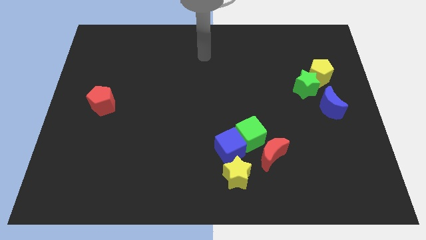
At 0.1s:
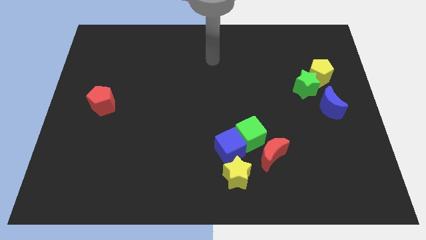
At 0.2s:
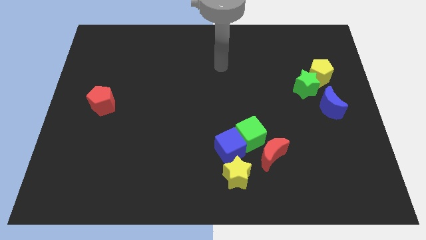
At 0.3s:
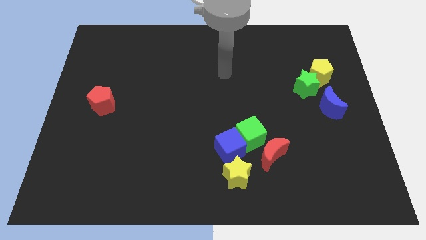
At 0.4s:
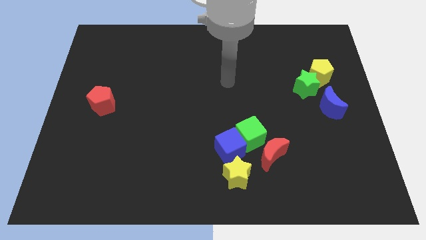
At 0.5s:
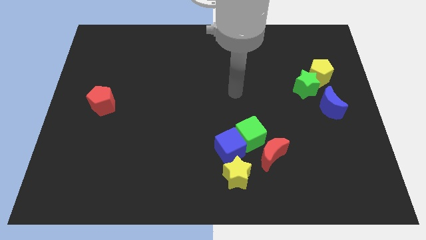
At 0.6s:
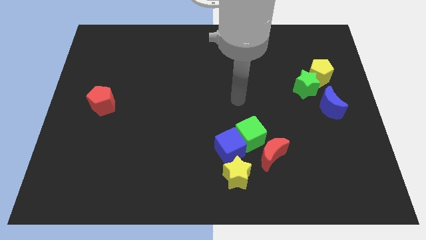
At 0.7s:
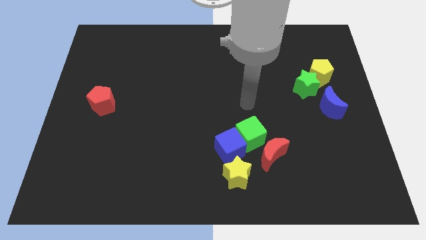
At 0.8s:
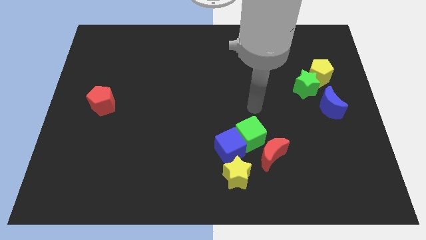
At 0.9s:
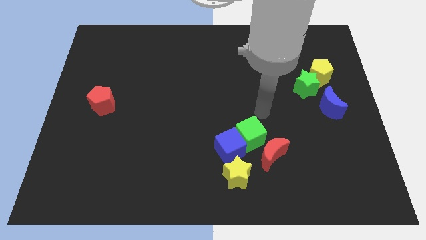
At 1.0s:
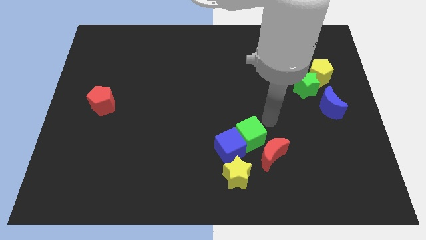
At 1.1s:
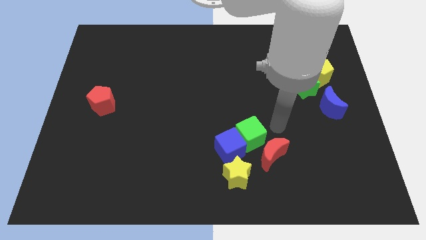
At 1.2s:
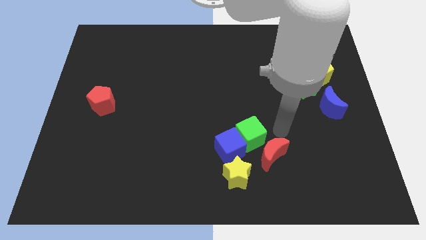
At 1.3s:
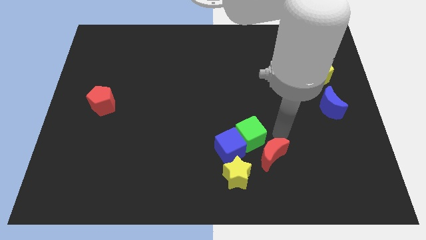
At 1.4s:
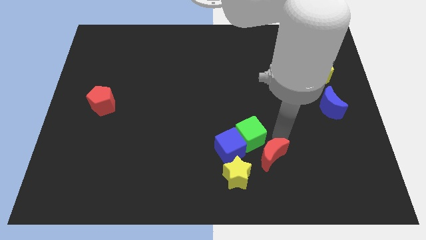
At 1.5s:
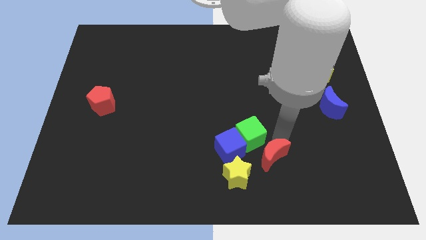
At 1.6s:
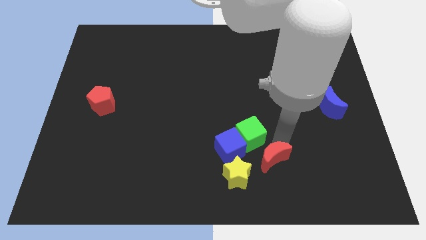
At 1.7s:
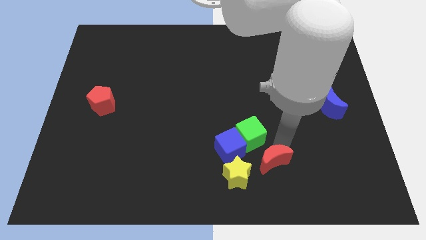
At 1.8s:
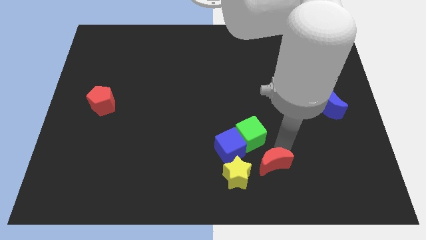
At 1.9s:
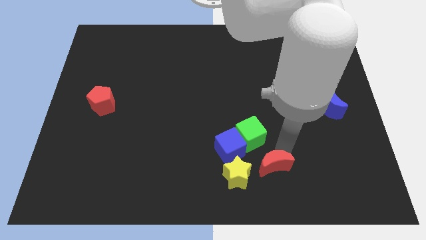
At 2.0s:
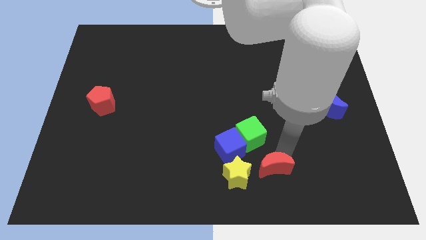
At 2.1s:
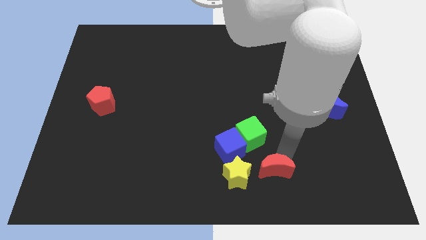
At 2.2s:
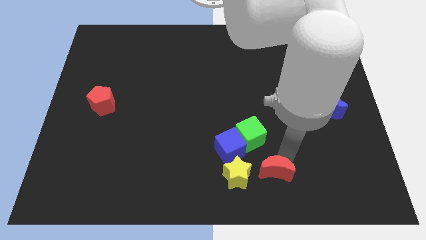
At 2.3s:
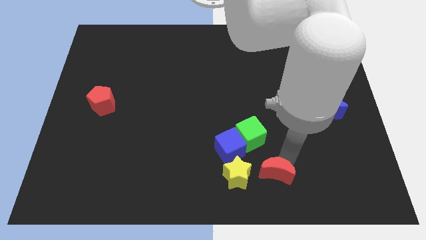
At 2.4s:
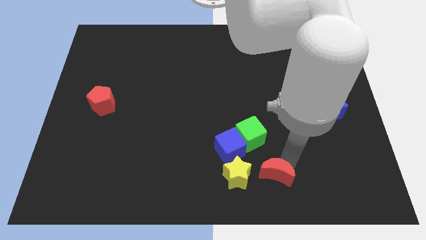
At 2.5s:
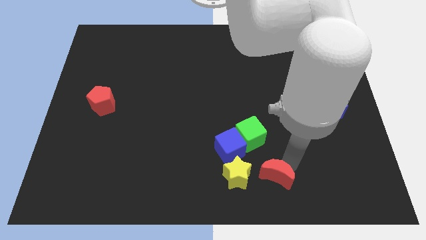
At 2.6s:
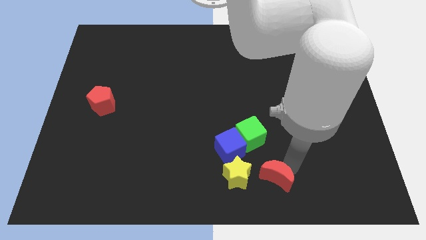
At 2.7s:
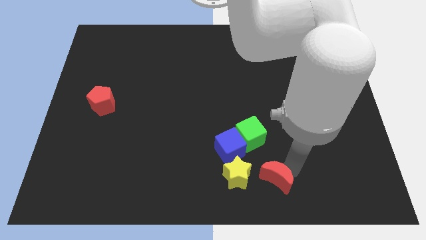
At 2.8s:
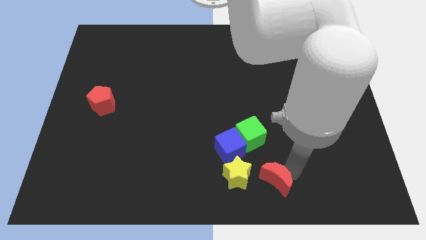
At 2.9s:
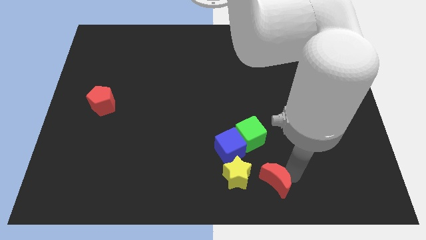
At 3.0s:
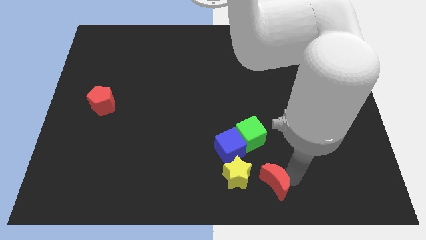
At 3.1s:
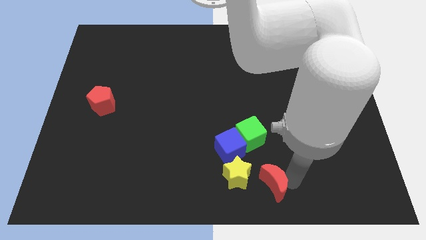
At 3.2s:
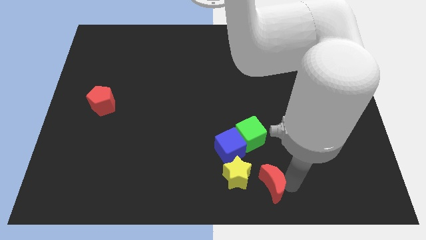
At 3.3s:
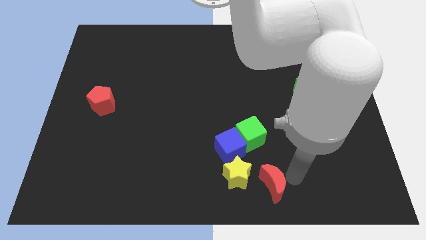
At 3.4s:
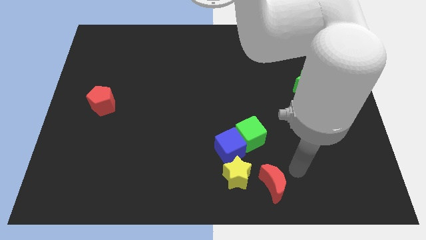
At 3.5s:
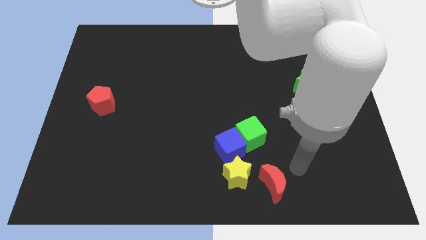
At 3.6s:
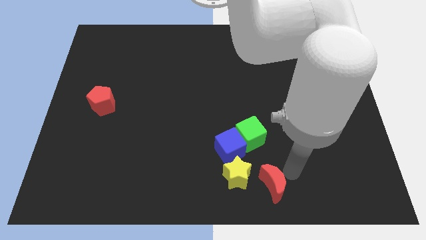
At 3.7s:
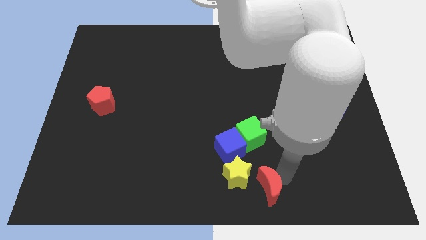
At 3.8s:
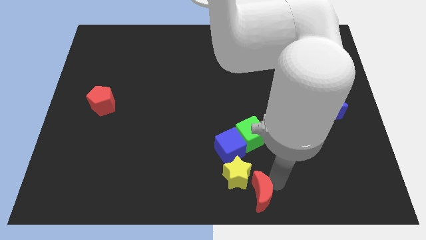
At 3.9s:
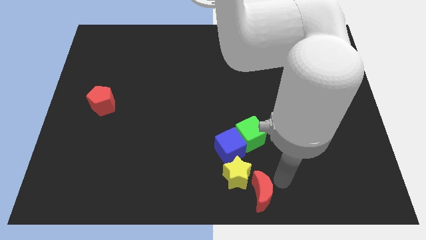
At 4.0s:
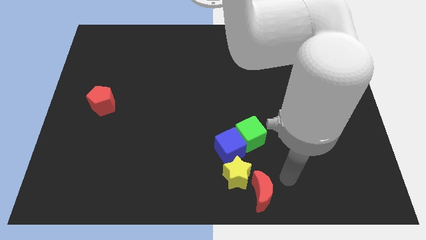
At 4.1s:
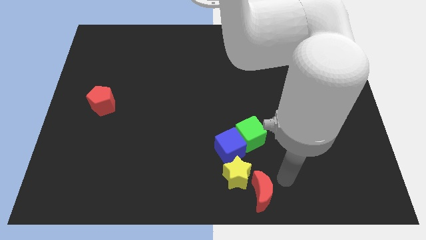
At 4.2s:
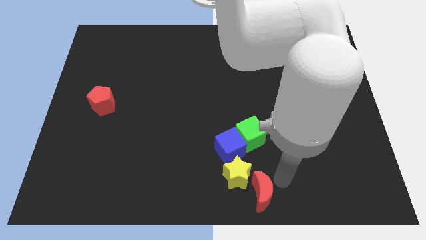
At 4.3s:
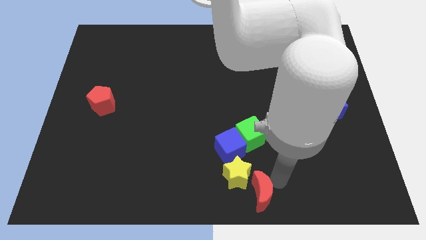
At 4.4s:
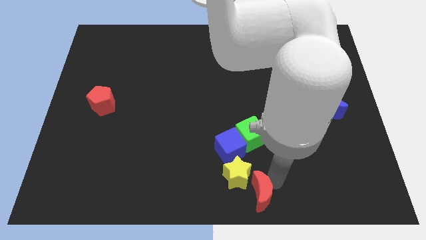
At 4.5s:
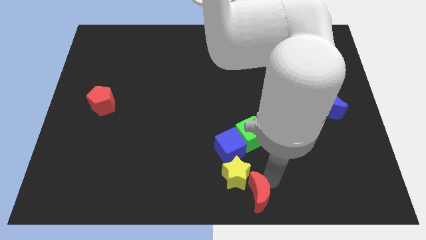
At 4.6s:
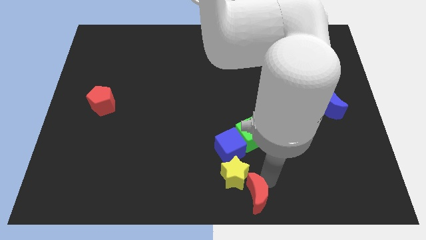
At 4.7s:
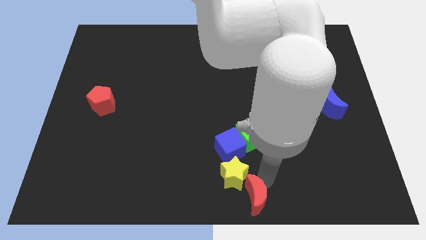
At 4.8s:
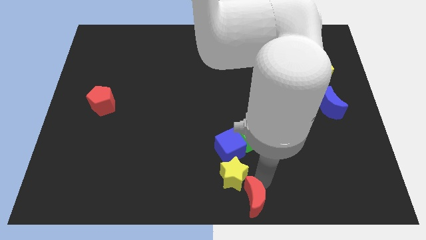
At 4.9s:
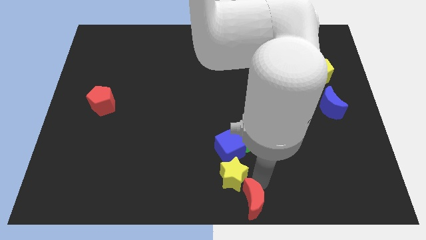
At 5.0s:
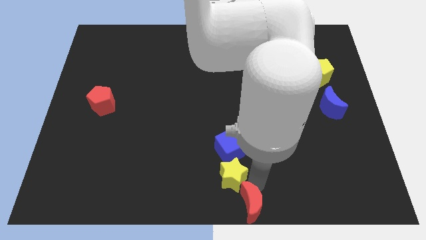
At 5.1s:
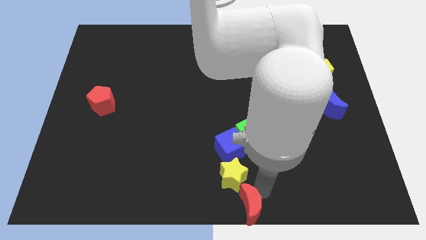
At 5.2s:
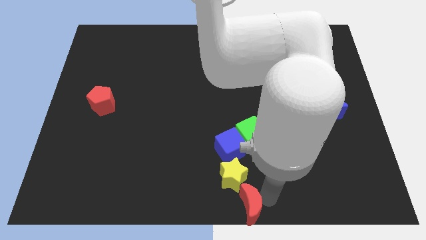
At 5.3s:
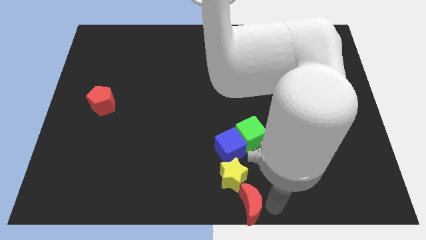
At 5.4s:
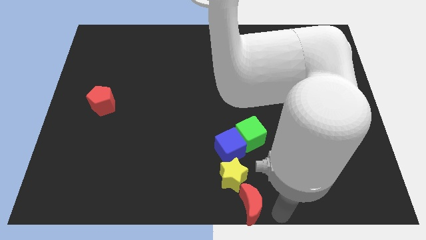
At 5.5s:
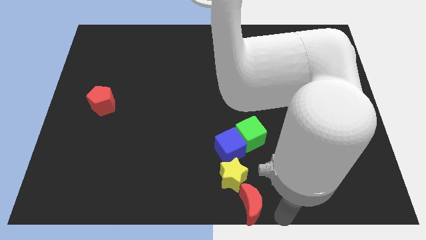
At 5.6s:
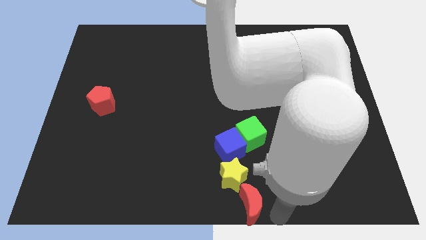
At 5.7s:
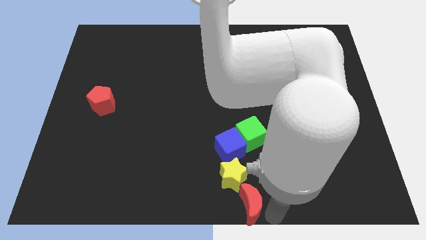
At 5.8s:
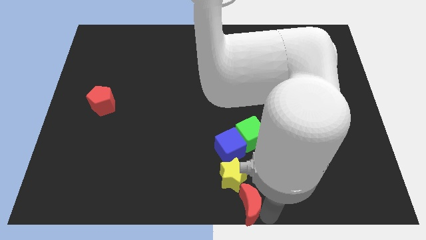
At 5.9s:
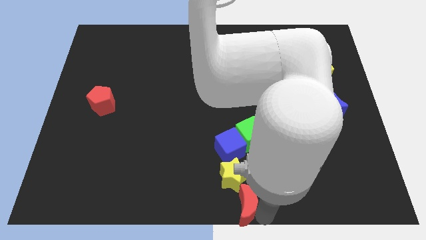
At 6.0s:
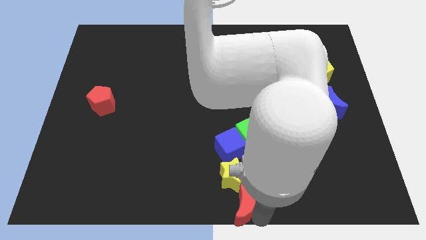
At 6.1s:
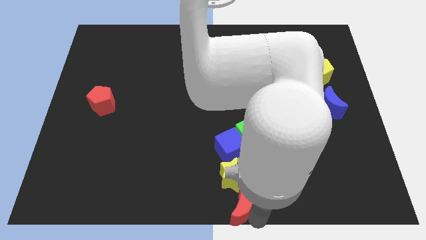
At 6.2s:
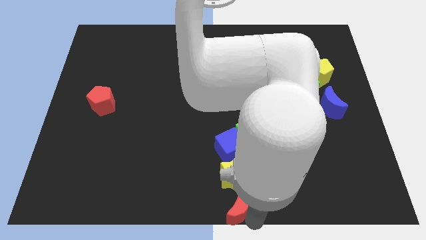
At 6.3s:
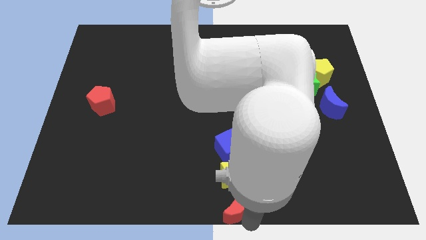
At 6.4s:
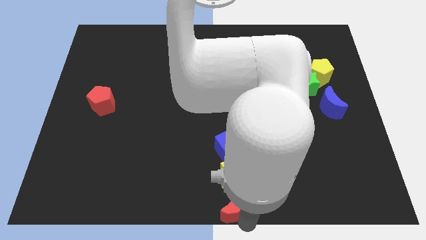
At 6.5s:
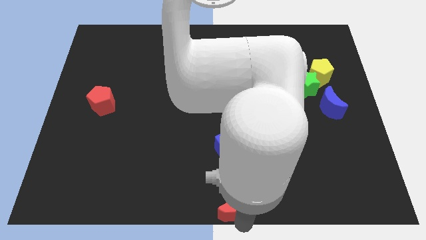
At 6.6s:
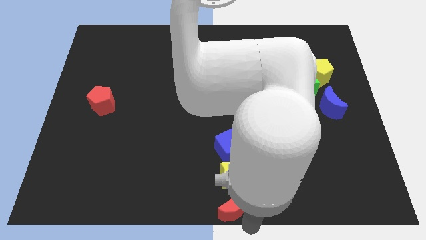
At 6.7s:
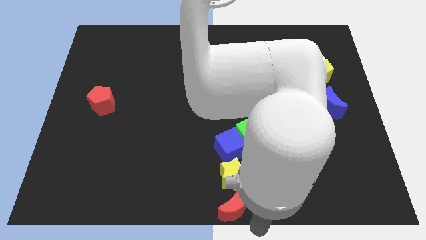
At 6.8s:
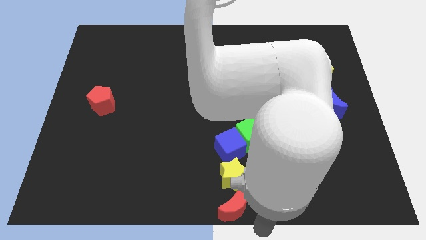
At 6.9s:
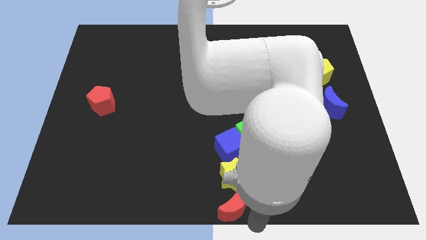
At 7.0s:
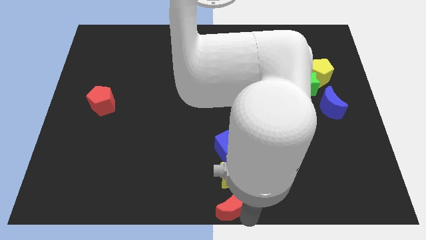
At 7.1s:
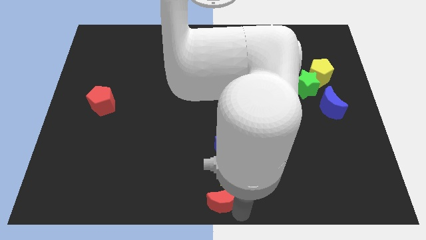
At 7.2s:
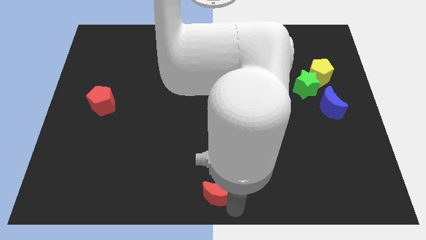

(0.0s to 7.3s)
slide the red moon a little to the left

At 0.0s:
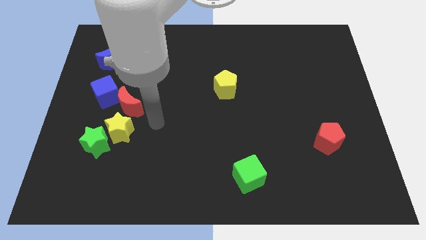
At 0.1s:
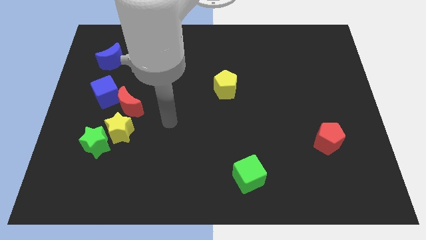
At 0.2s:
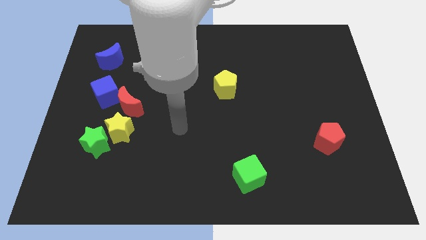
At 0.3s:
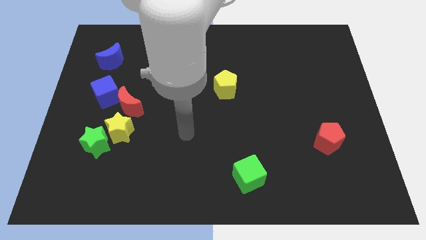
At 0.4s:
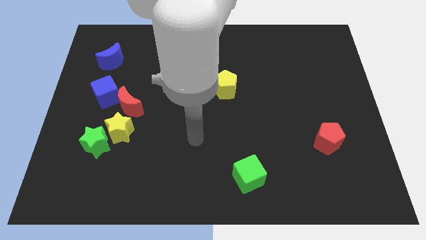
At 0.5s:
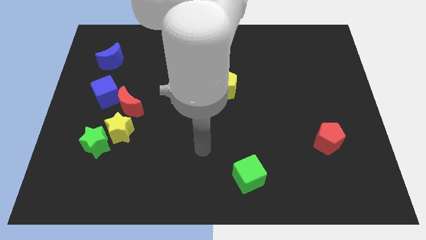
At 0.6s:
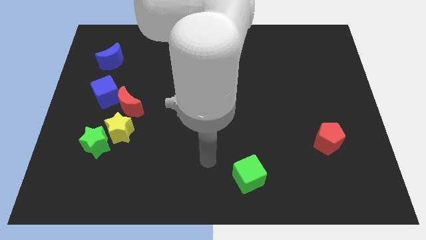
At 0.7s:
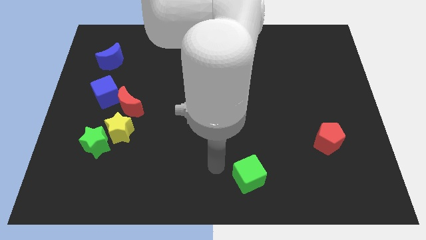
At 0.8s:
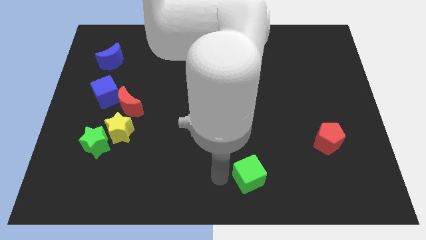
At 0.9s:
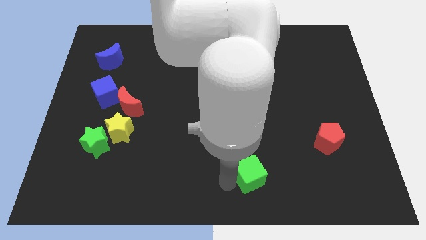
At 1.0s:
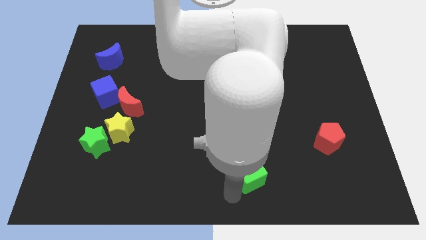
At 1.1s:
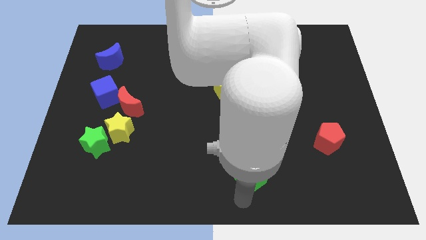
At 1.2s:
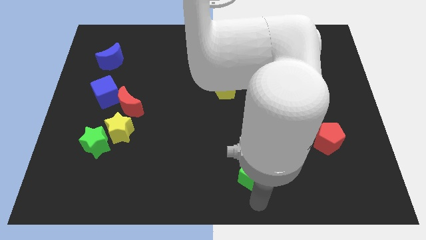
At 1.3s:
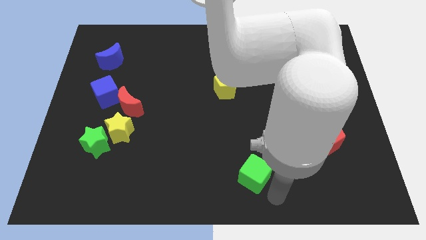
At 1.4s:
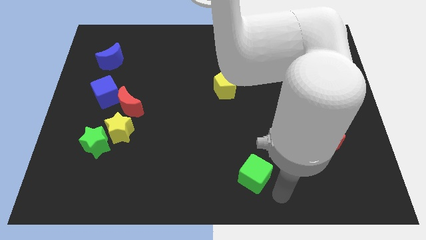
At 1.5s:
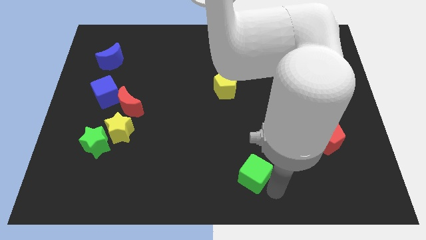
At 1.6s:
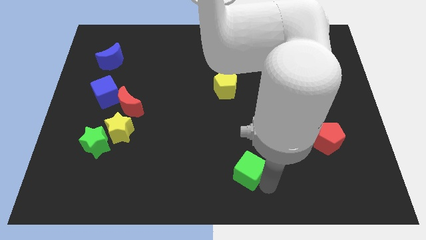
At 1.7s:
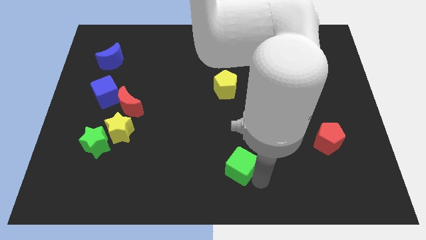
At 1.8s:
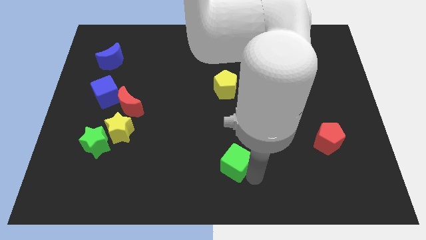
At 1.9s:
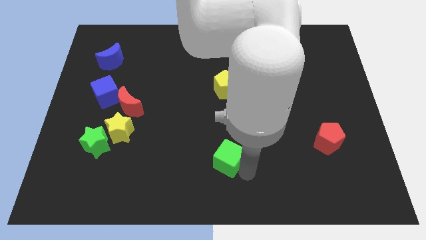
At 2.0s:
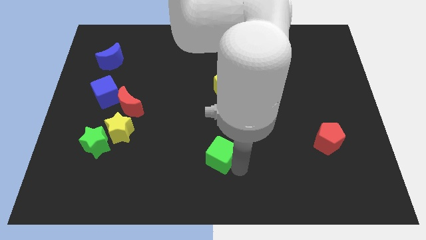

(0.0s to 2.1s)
slightly push the green cube upwards and left
